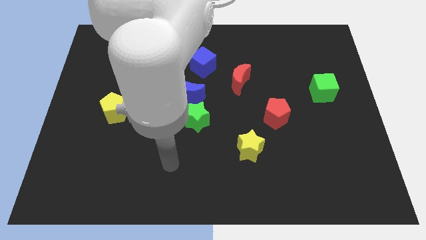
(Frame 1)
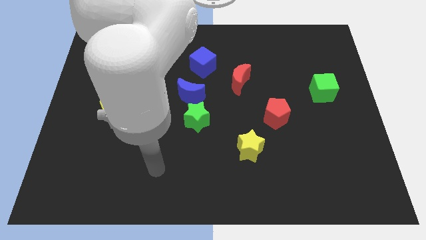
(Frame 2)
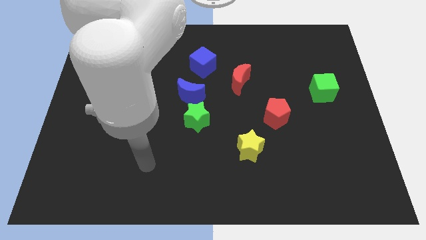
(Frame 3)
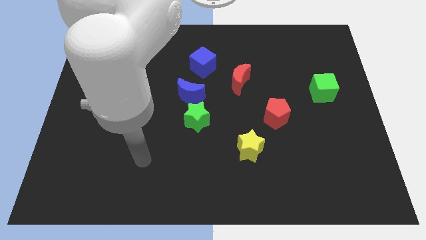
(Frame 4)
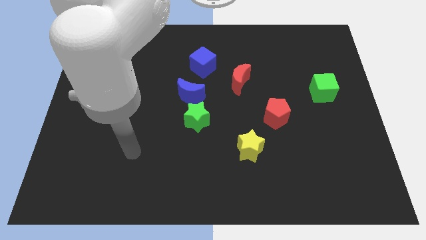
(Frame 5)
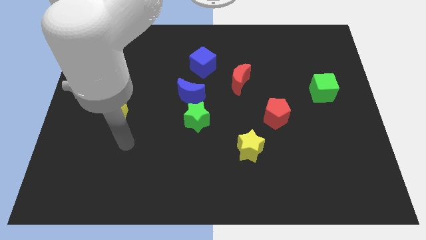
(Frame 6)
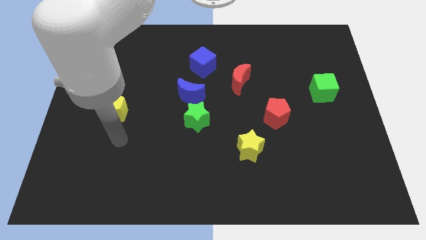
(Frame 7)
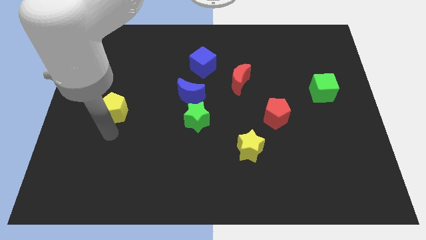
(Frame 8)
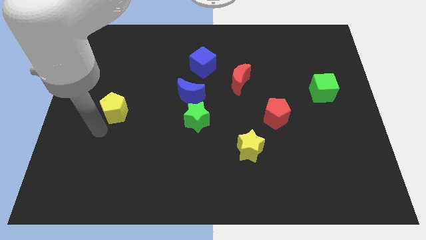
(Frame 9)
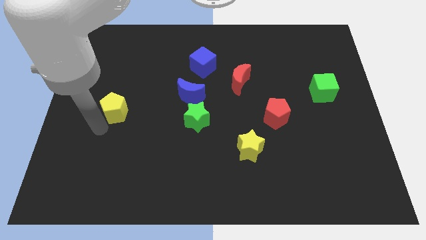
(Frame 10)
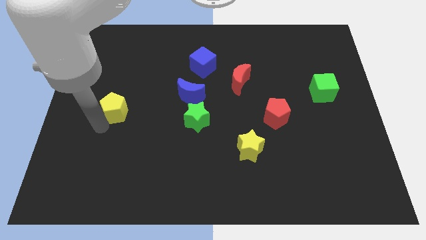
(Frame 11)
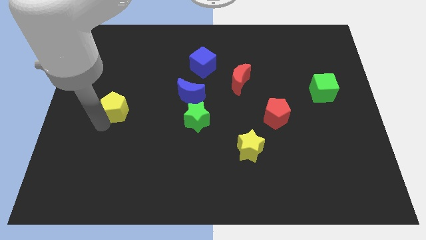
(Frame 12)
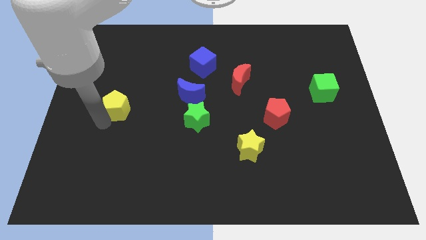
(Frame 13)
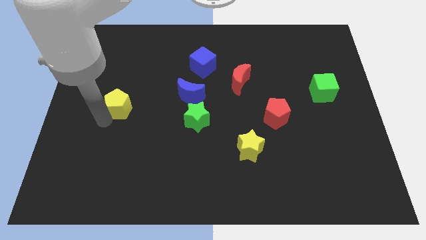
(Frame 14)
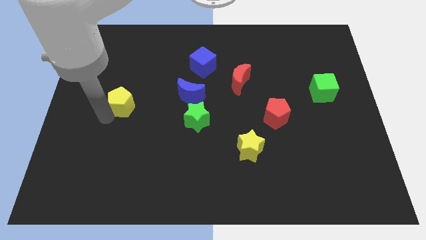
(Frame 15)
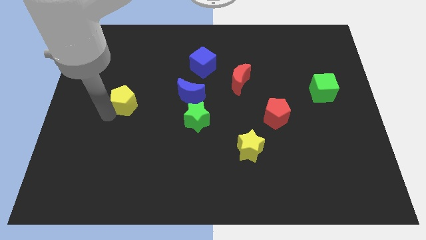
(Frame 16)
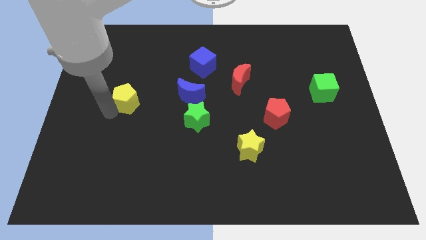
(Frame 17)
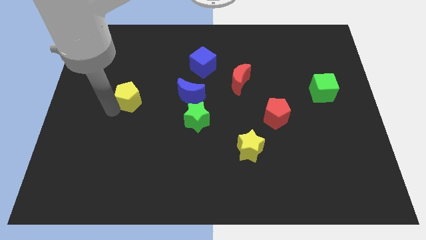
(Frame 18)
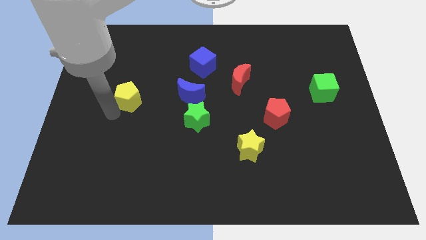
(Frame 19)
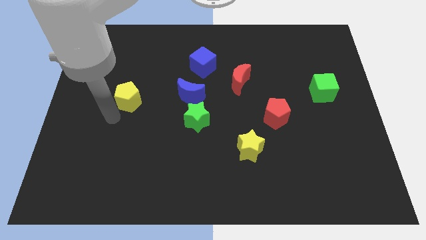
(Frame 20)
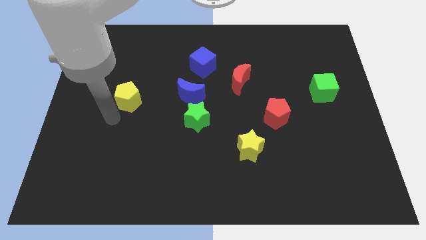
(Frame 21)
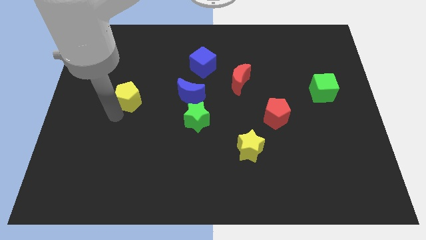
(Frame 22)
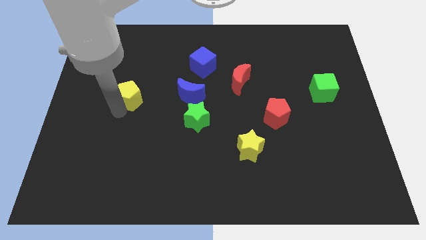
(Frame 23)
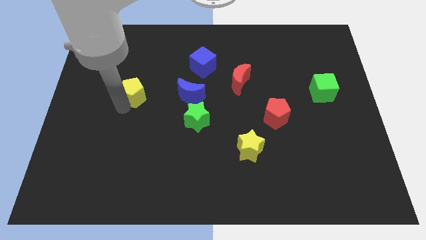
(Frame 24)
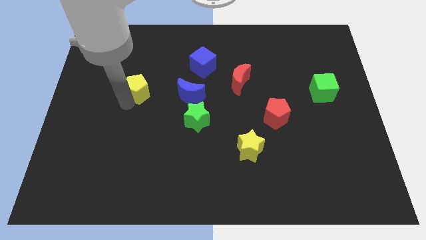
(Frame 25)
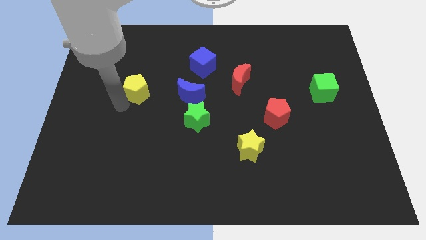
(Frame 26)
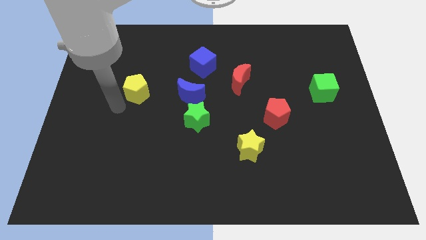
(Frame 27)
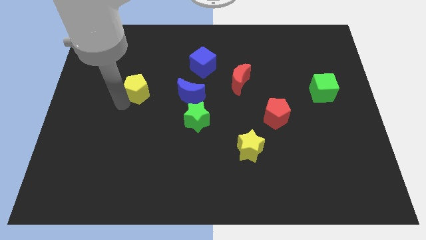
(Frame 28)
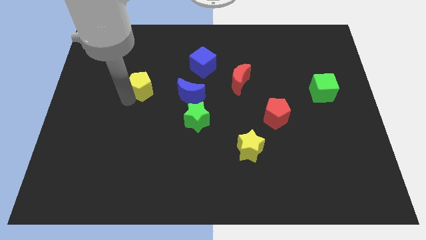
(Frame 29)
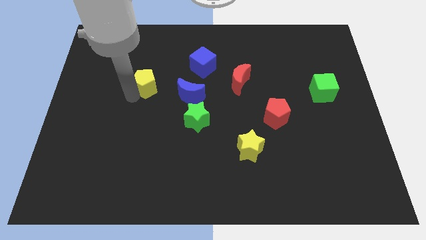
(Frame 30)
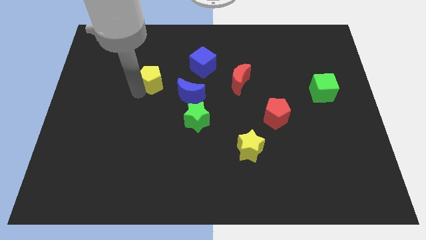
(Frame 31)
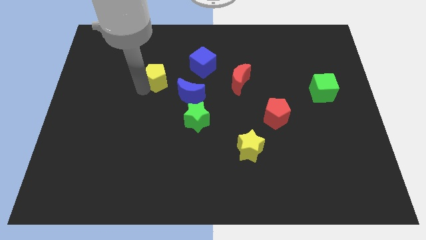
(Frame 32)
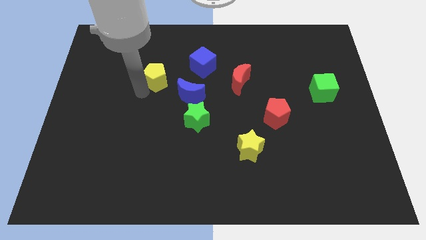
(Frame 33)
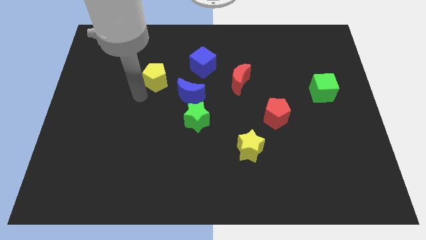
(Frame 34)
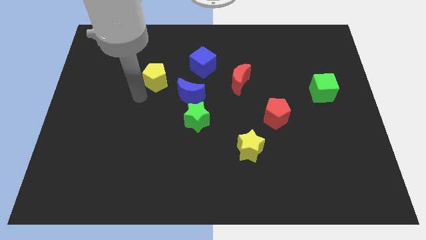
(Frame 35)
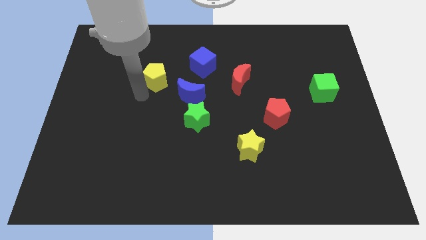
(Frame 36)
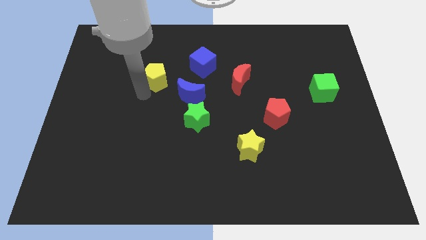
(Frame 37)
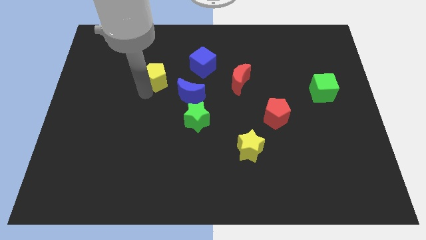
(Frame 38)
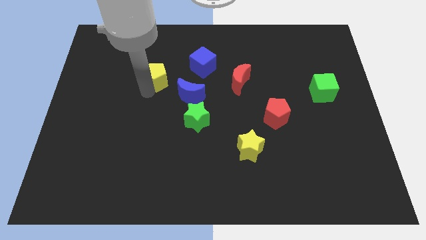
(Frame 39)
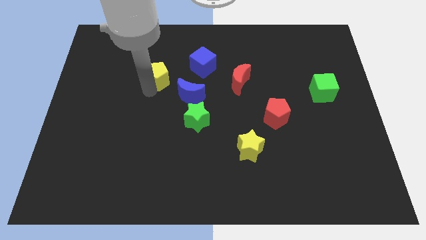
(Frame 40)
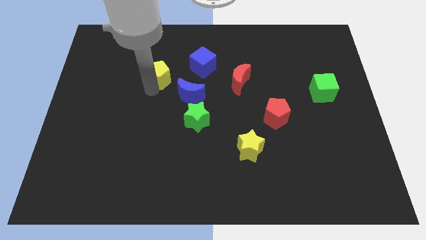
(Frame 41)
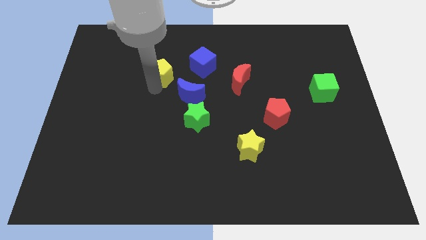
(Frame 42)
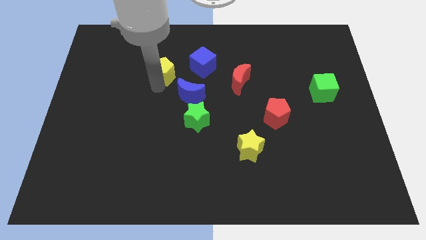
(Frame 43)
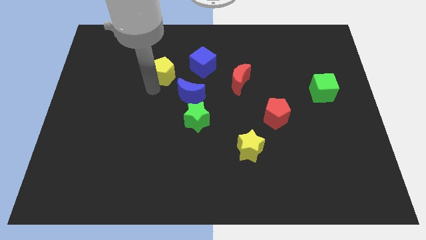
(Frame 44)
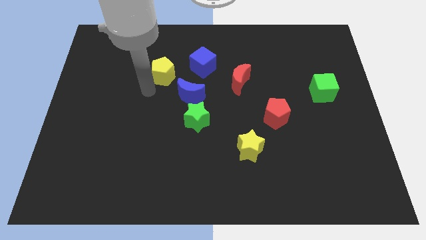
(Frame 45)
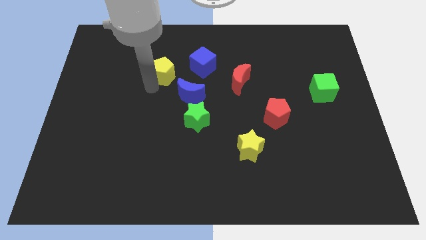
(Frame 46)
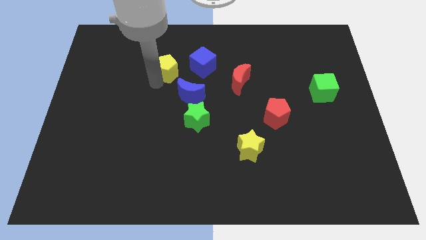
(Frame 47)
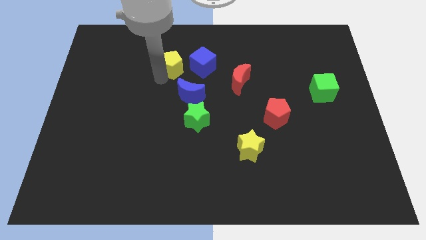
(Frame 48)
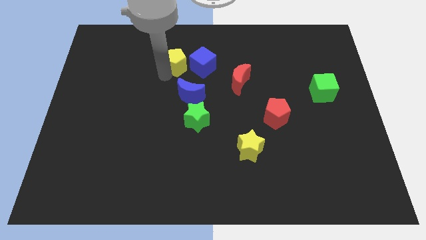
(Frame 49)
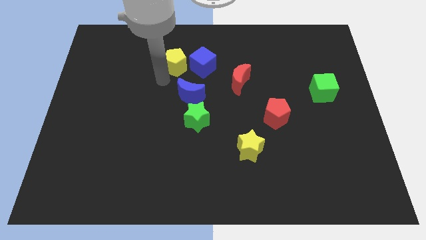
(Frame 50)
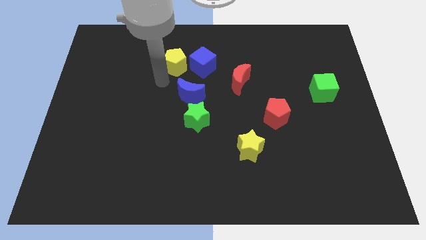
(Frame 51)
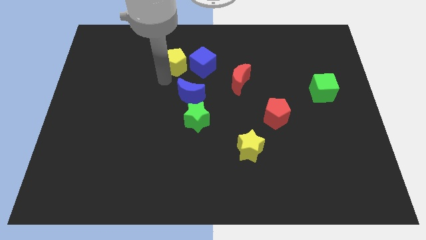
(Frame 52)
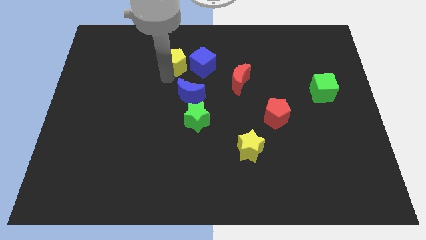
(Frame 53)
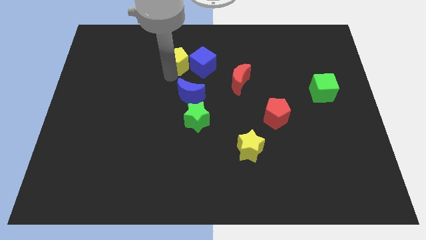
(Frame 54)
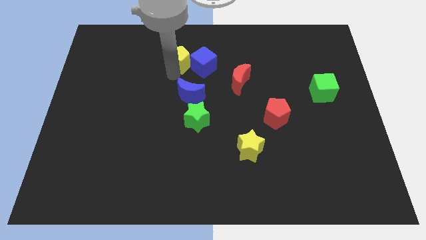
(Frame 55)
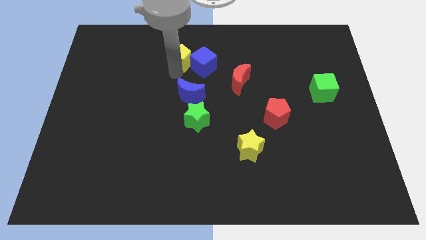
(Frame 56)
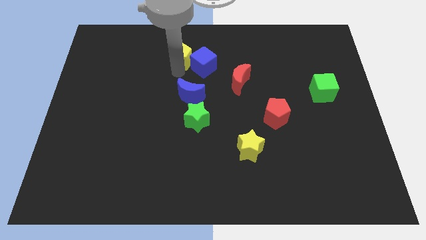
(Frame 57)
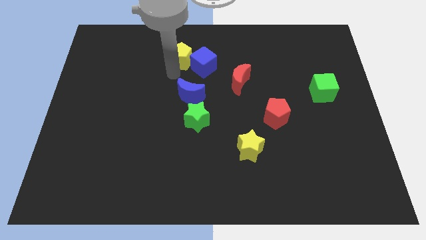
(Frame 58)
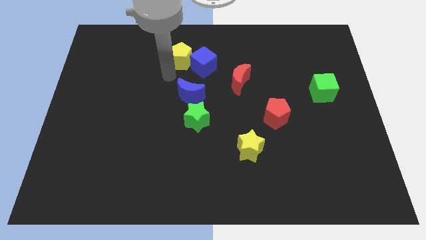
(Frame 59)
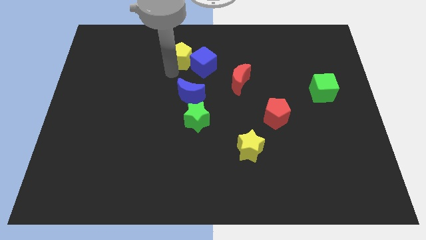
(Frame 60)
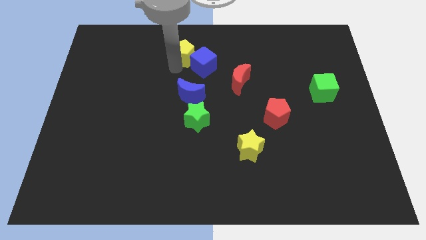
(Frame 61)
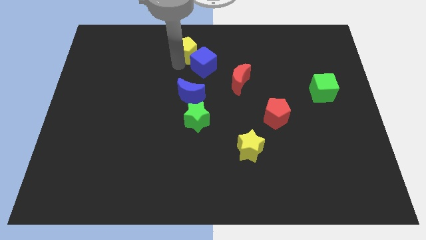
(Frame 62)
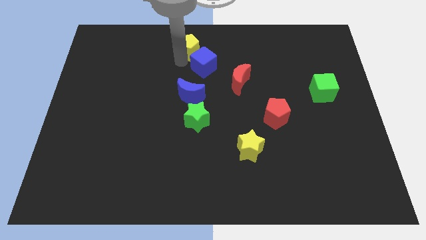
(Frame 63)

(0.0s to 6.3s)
slide the yellow pentagon to the towards your base
